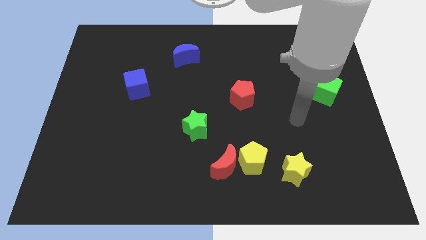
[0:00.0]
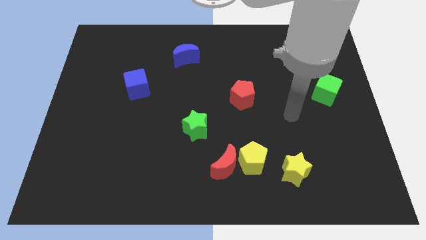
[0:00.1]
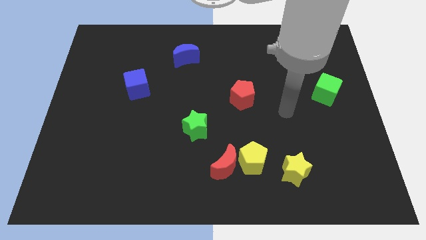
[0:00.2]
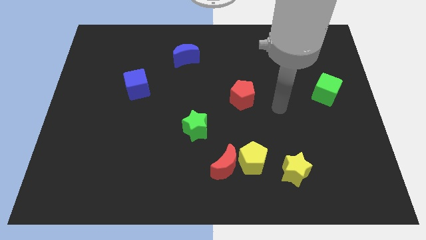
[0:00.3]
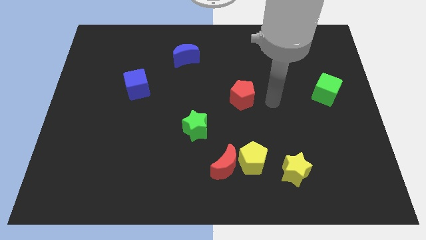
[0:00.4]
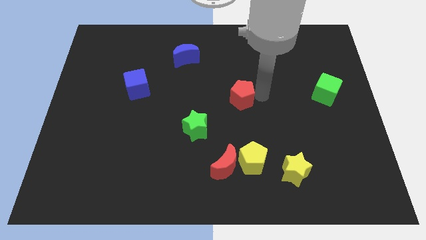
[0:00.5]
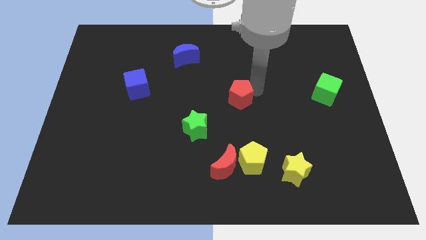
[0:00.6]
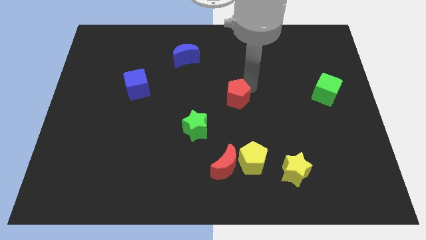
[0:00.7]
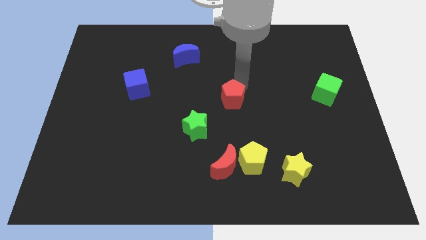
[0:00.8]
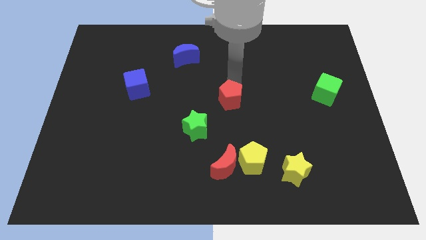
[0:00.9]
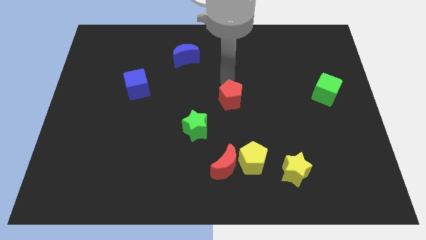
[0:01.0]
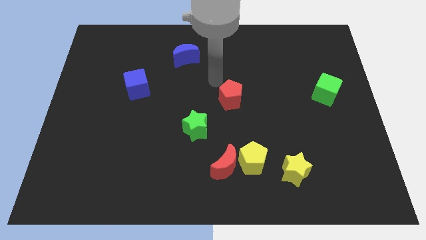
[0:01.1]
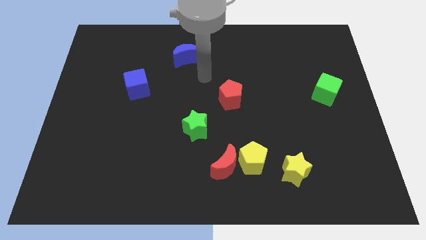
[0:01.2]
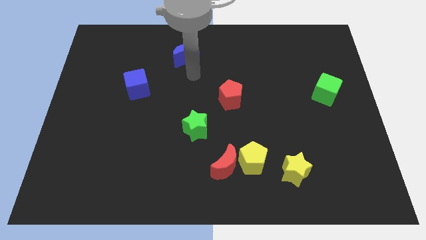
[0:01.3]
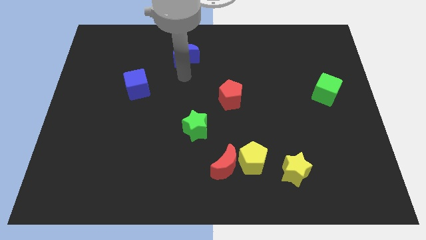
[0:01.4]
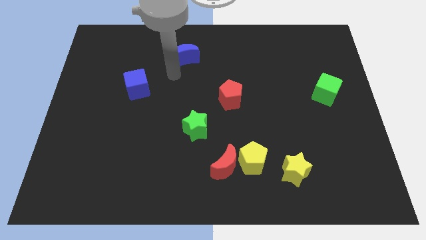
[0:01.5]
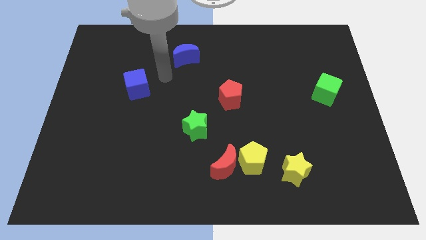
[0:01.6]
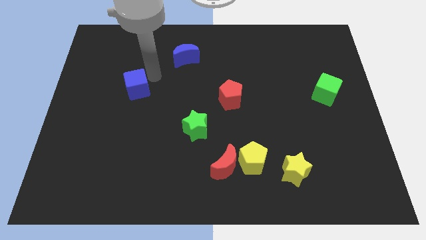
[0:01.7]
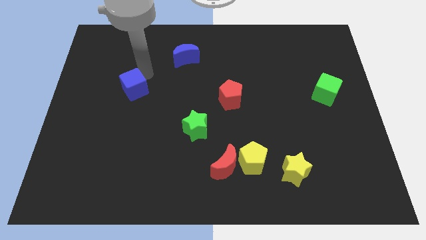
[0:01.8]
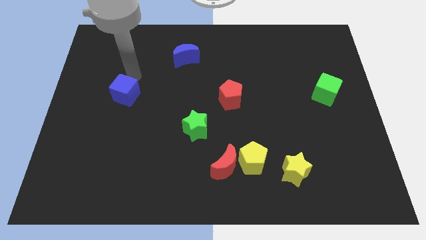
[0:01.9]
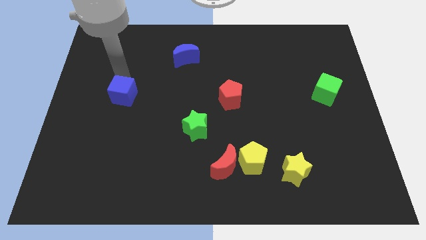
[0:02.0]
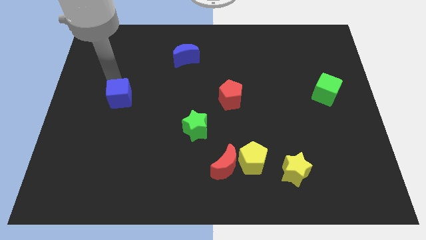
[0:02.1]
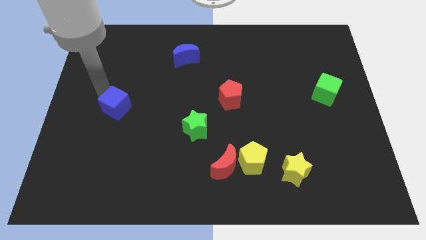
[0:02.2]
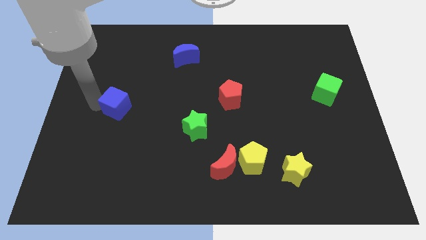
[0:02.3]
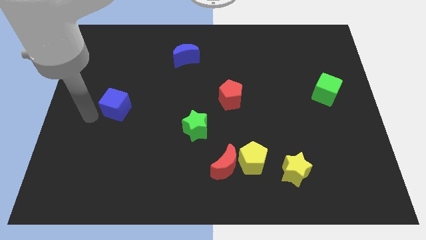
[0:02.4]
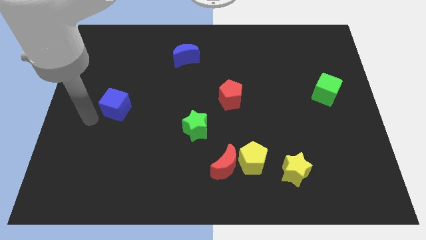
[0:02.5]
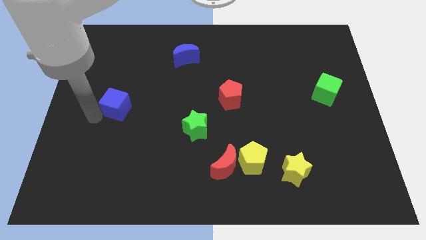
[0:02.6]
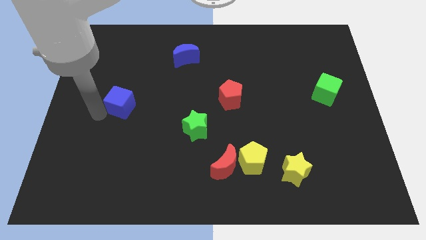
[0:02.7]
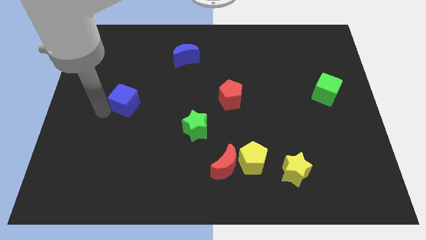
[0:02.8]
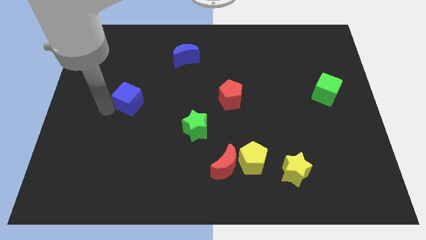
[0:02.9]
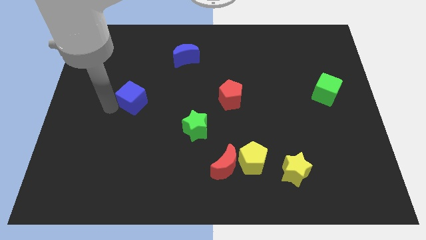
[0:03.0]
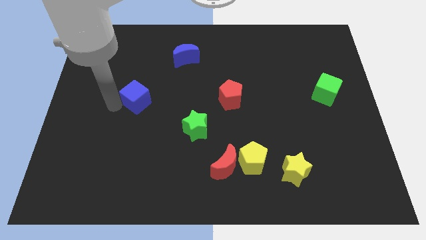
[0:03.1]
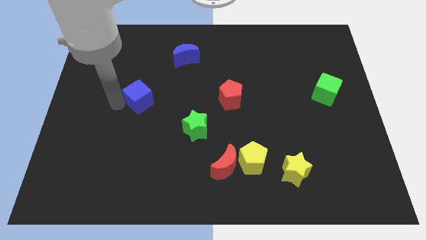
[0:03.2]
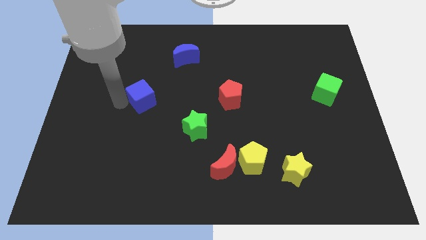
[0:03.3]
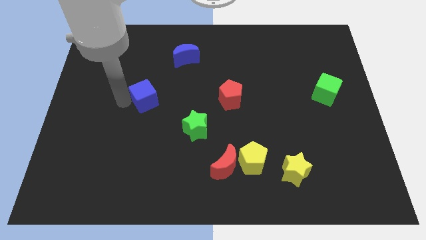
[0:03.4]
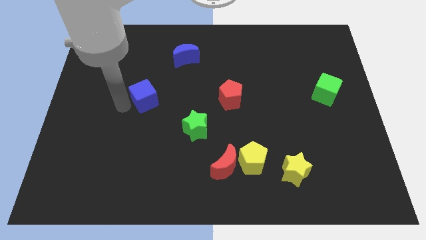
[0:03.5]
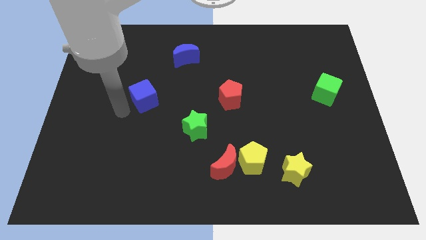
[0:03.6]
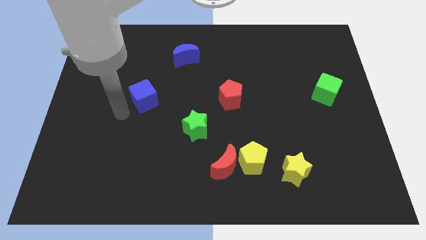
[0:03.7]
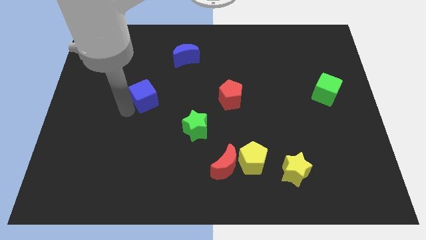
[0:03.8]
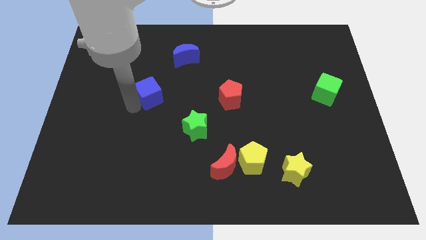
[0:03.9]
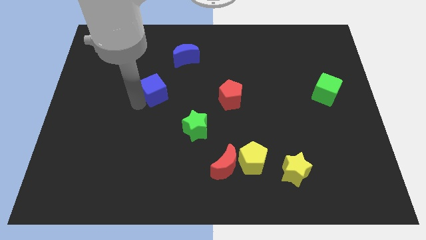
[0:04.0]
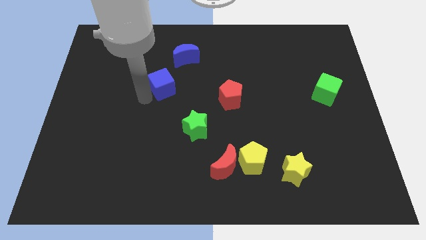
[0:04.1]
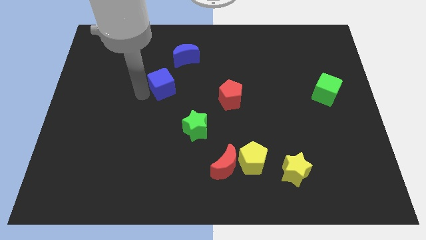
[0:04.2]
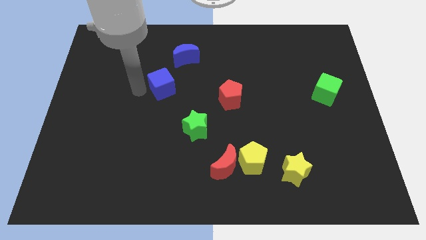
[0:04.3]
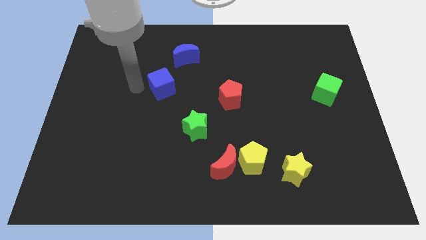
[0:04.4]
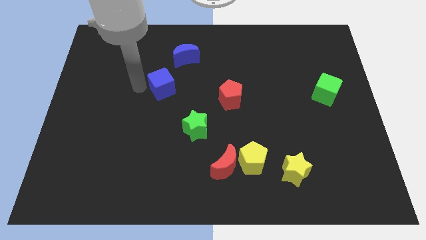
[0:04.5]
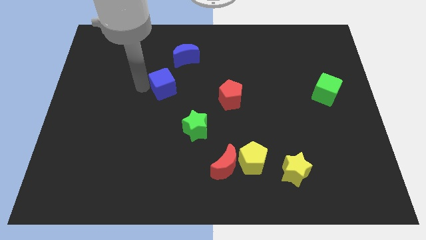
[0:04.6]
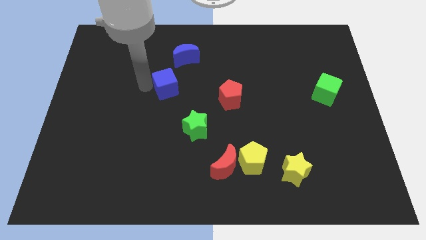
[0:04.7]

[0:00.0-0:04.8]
slide the blue cube a bit to the right

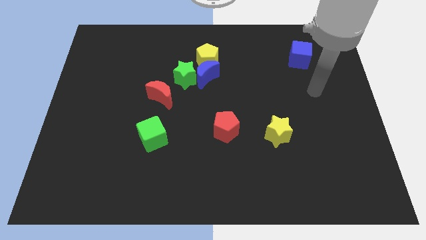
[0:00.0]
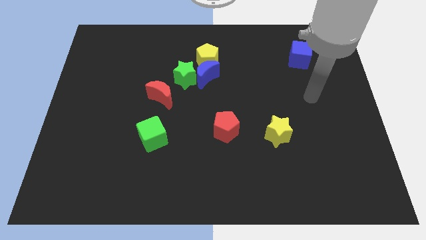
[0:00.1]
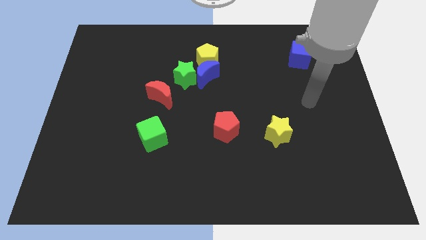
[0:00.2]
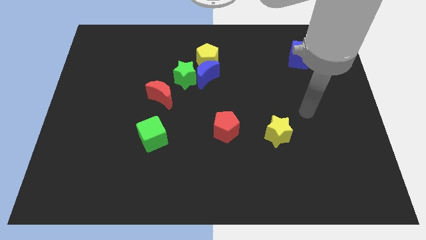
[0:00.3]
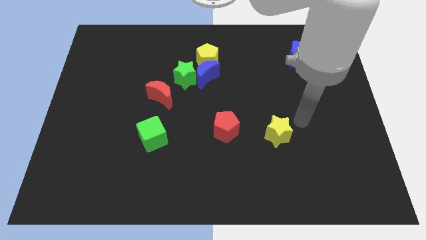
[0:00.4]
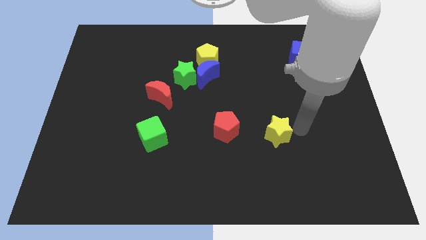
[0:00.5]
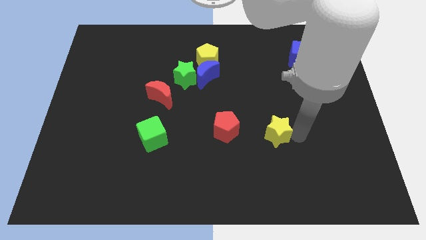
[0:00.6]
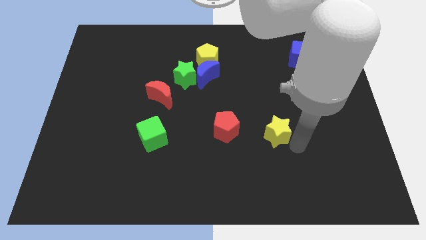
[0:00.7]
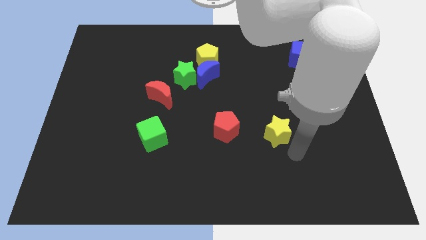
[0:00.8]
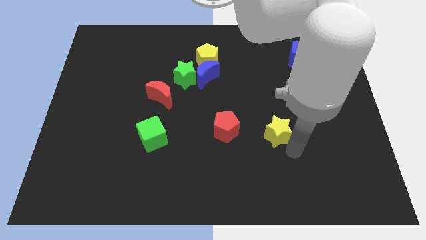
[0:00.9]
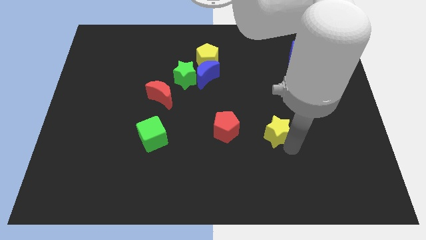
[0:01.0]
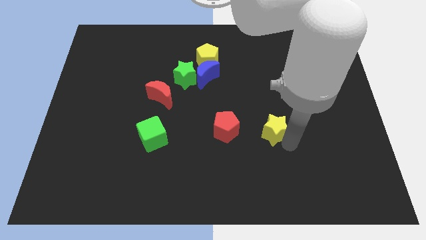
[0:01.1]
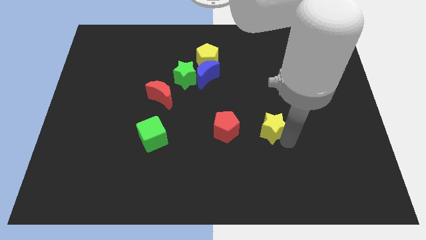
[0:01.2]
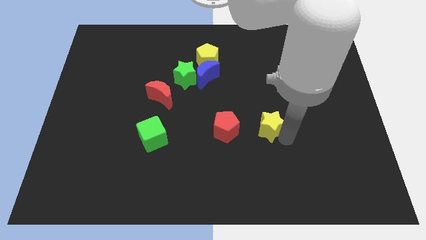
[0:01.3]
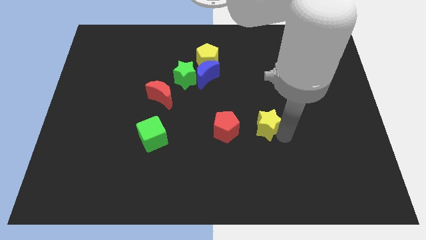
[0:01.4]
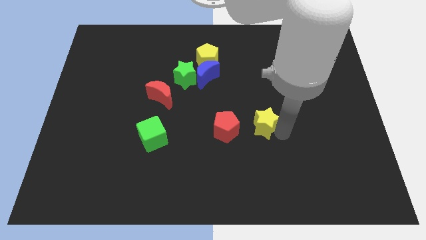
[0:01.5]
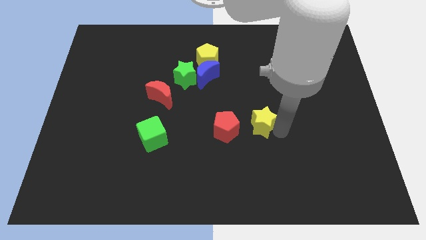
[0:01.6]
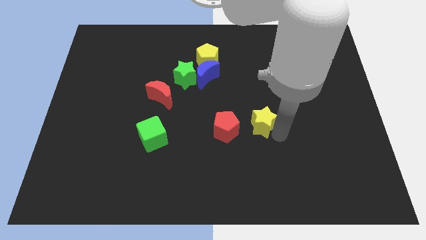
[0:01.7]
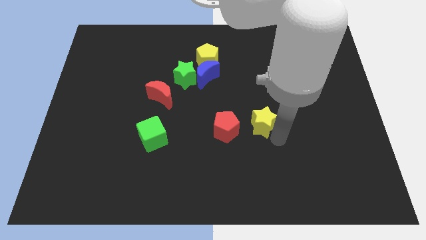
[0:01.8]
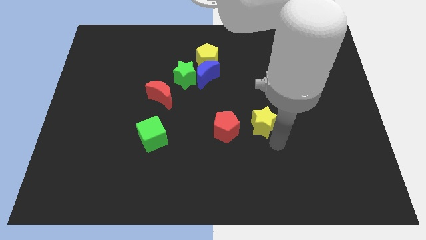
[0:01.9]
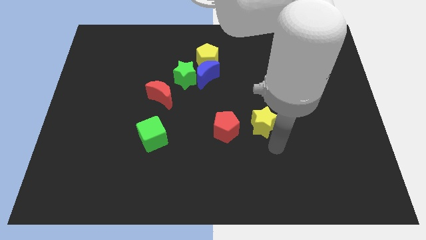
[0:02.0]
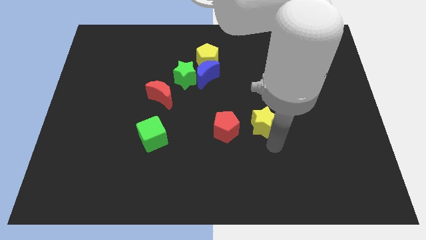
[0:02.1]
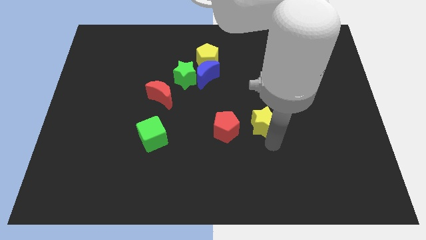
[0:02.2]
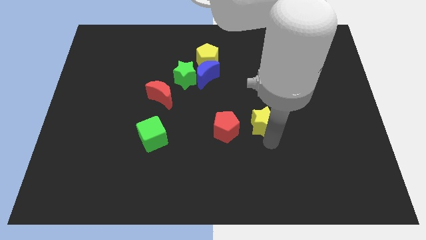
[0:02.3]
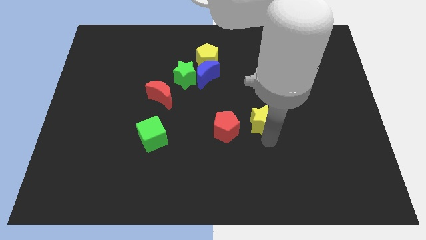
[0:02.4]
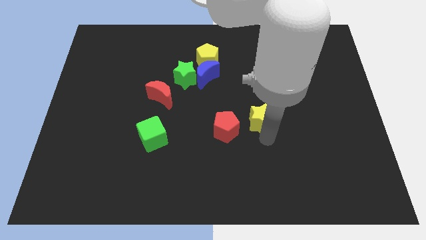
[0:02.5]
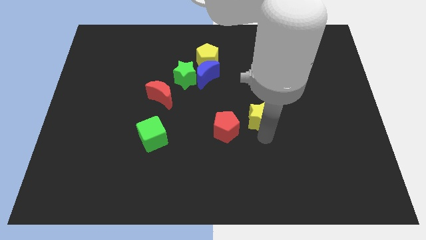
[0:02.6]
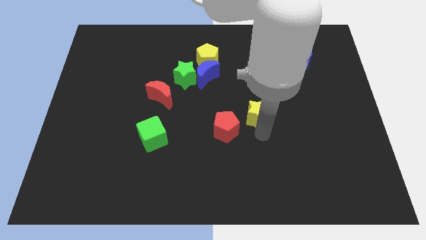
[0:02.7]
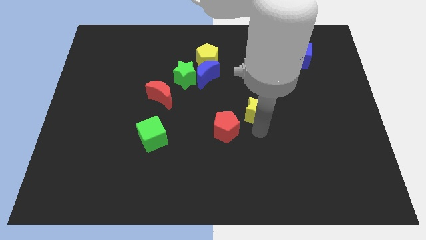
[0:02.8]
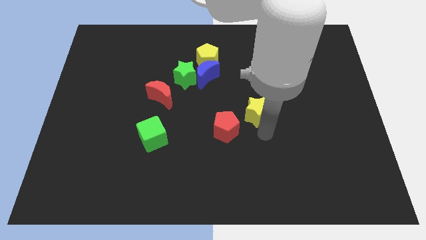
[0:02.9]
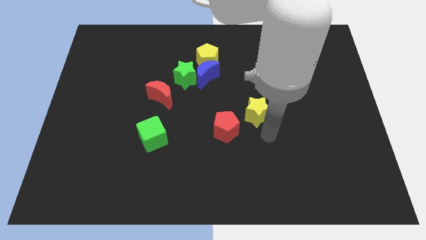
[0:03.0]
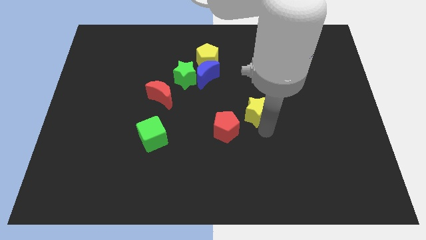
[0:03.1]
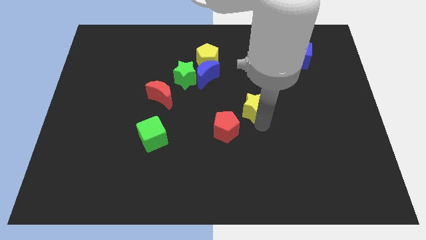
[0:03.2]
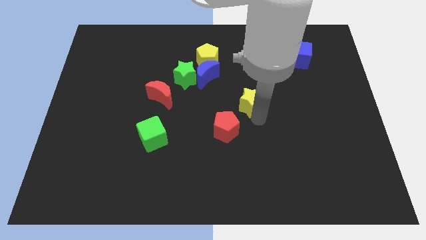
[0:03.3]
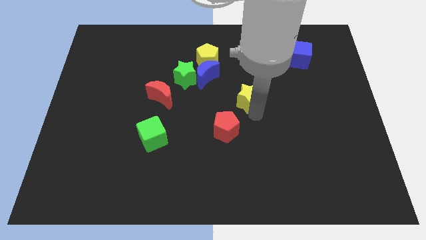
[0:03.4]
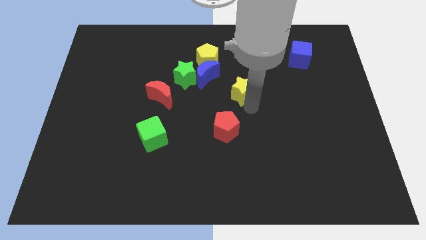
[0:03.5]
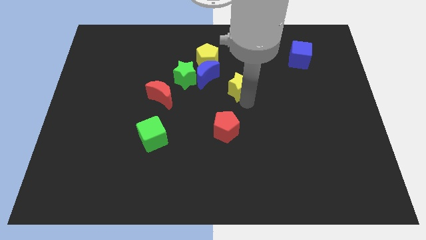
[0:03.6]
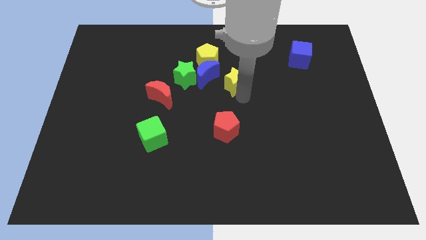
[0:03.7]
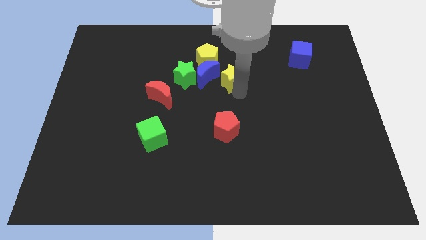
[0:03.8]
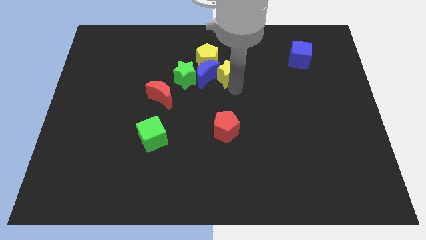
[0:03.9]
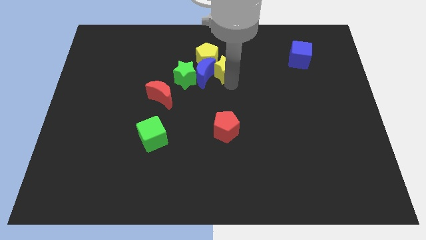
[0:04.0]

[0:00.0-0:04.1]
push the yellow star up and left diagonally

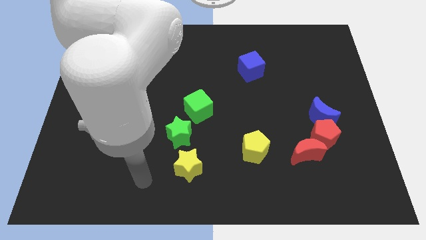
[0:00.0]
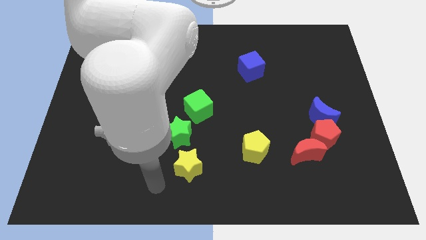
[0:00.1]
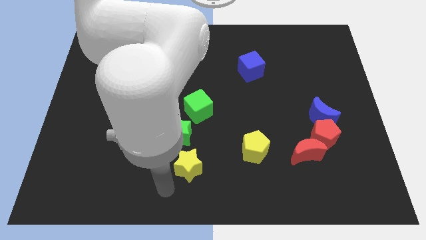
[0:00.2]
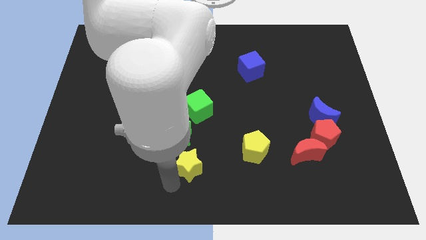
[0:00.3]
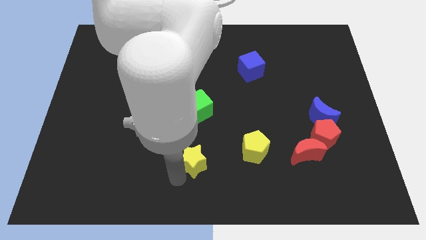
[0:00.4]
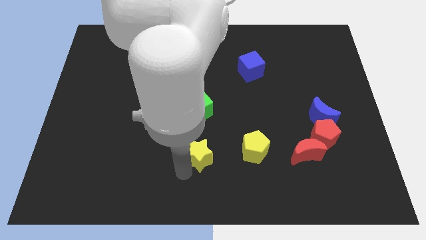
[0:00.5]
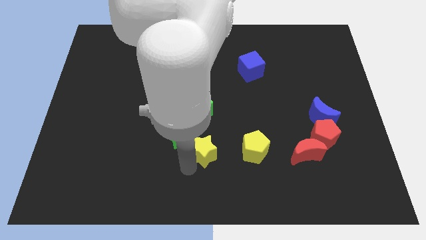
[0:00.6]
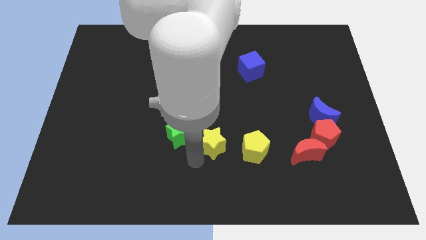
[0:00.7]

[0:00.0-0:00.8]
move the yellow star up and to the right diagonally a bit
